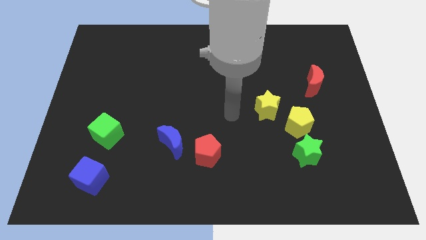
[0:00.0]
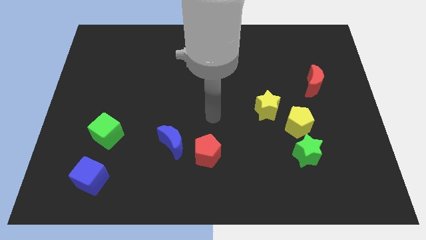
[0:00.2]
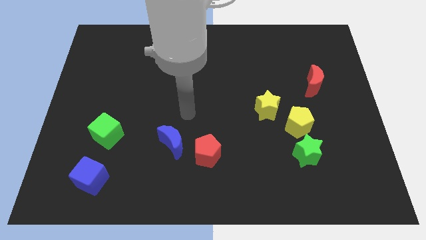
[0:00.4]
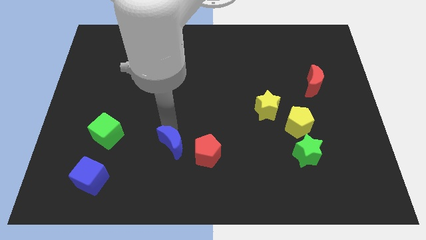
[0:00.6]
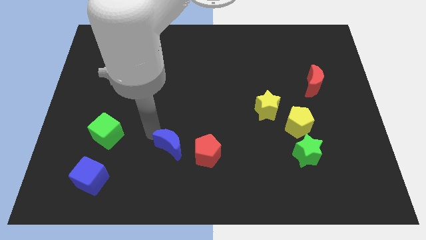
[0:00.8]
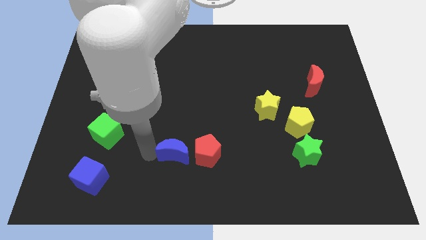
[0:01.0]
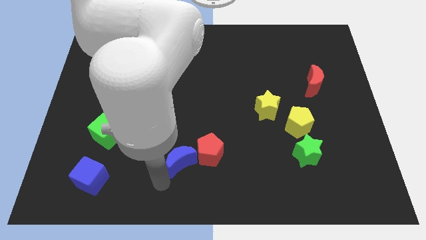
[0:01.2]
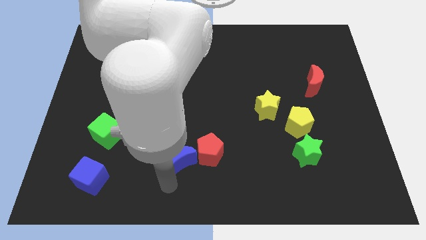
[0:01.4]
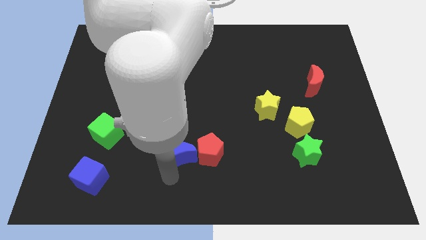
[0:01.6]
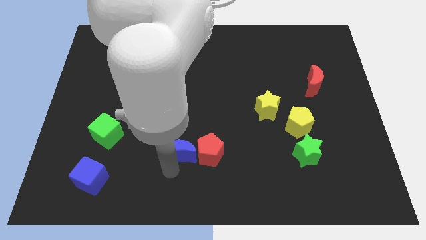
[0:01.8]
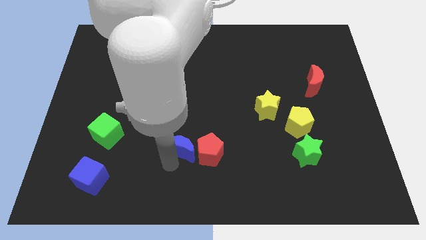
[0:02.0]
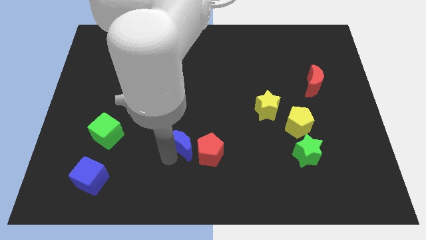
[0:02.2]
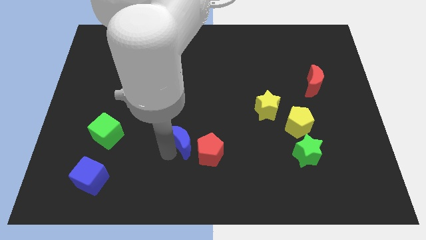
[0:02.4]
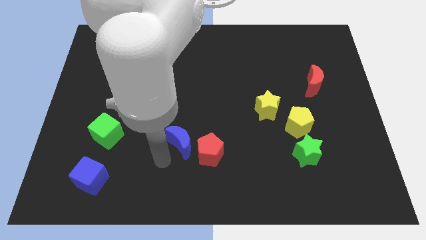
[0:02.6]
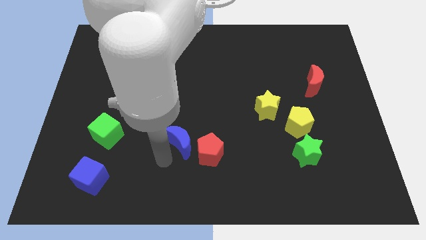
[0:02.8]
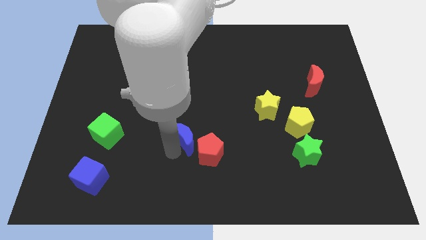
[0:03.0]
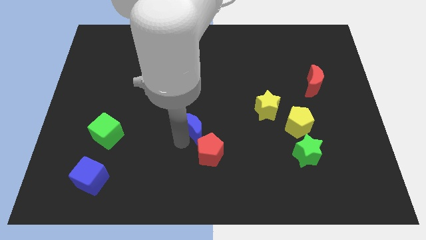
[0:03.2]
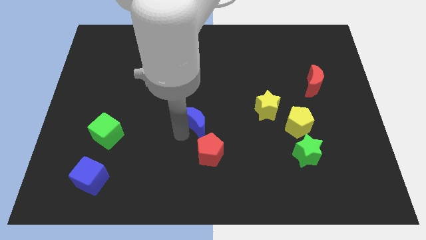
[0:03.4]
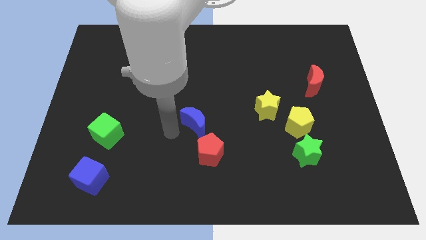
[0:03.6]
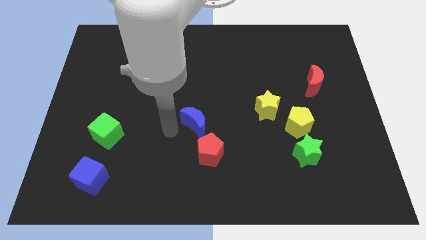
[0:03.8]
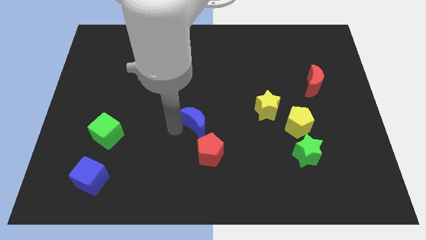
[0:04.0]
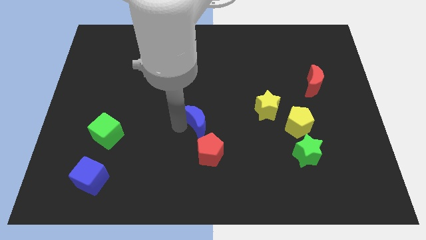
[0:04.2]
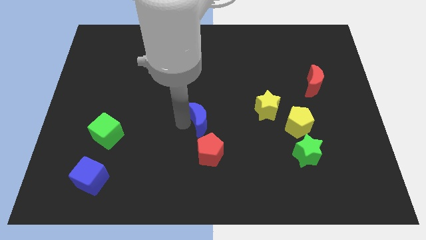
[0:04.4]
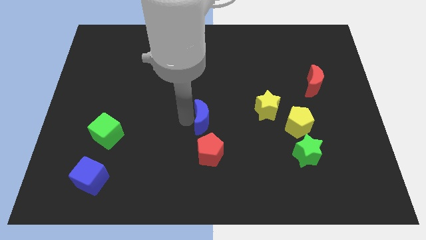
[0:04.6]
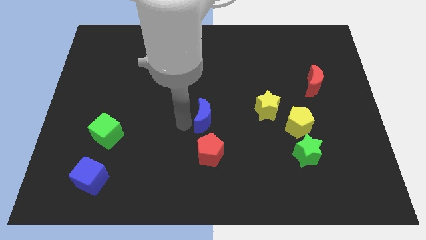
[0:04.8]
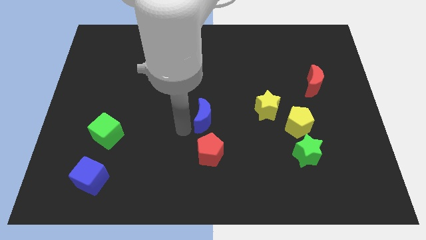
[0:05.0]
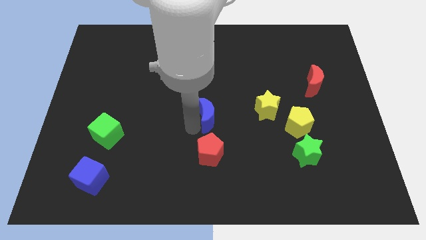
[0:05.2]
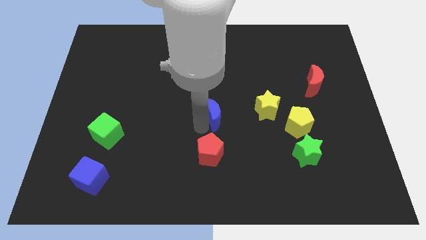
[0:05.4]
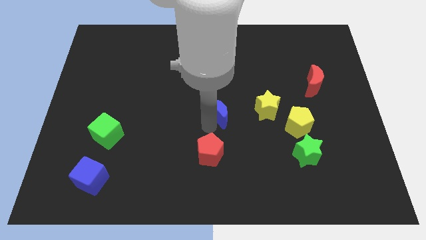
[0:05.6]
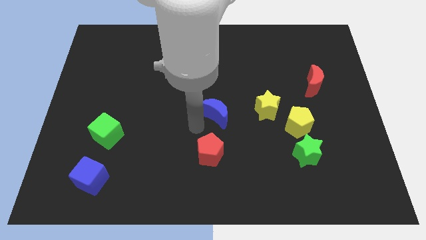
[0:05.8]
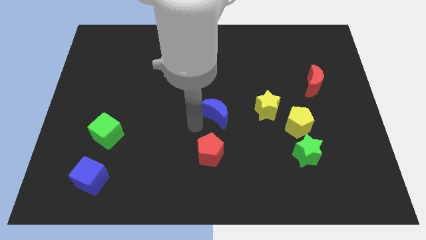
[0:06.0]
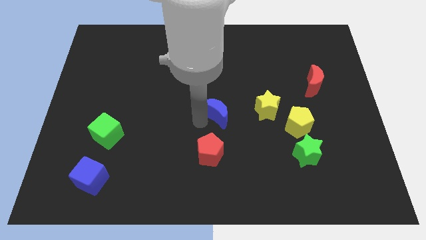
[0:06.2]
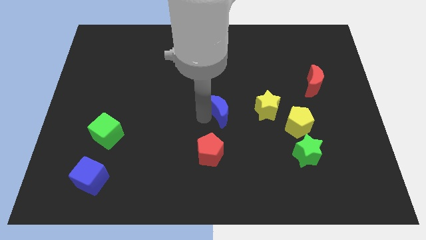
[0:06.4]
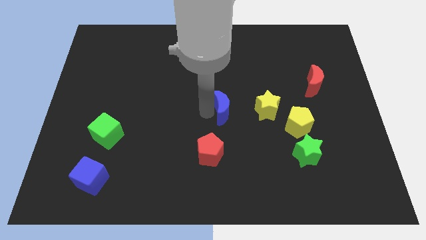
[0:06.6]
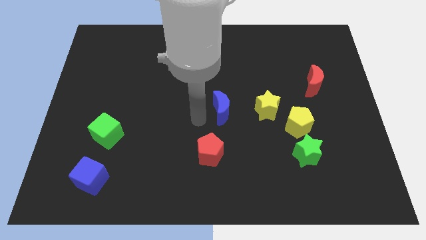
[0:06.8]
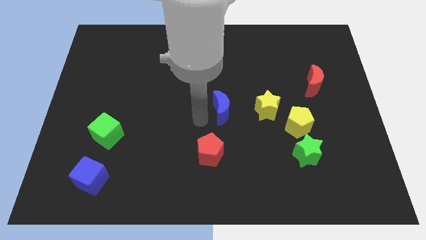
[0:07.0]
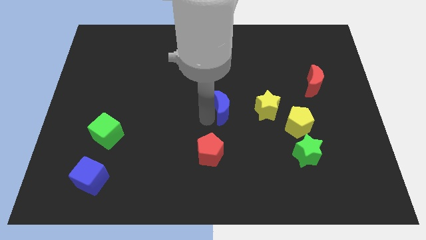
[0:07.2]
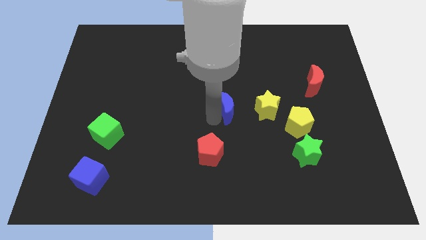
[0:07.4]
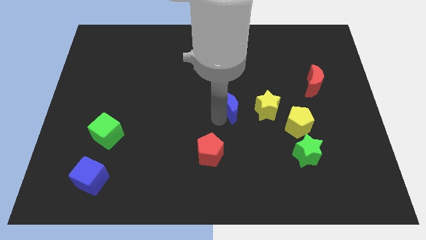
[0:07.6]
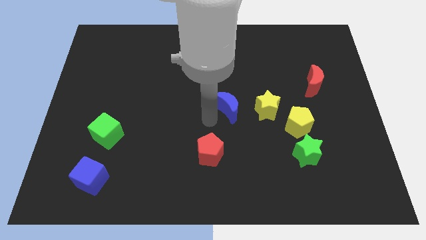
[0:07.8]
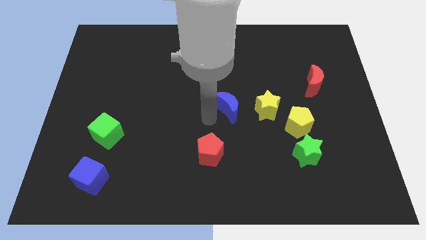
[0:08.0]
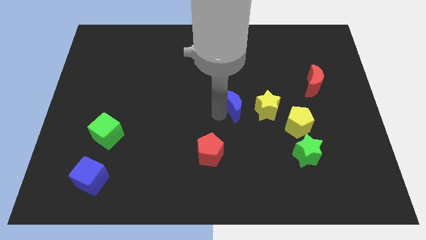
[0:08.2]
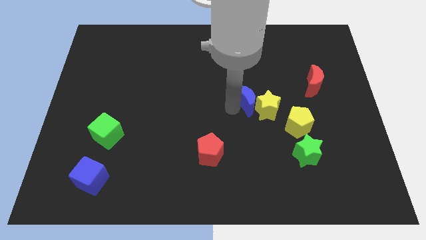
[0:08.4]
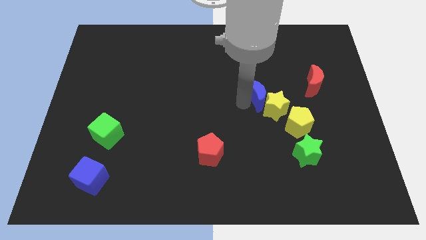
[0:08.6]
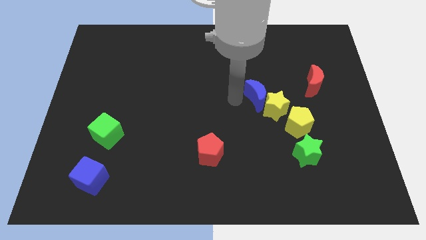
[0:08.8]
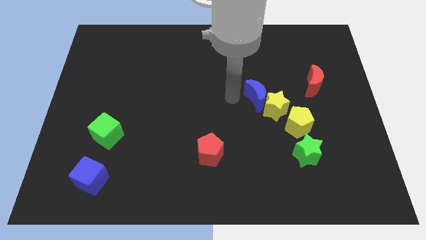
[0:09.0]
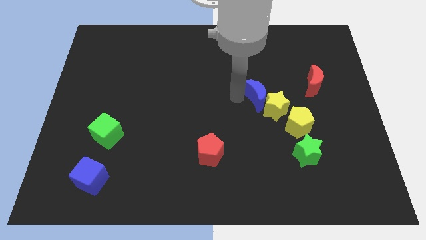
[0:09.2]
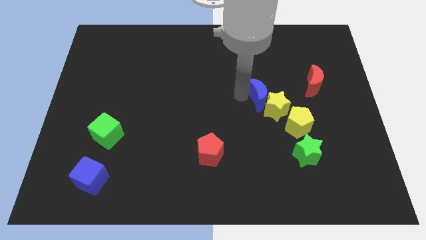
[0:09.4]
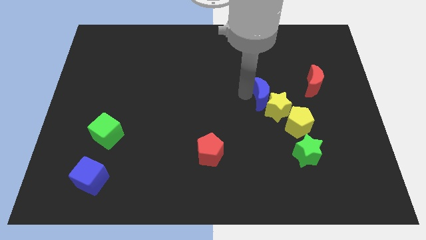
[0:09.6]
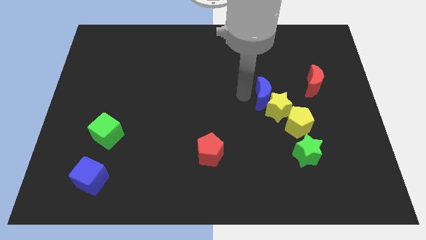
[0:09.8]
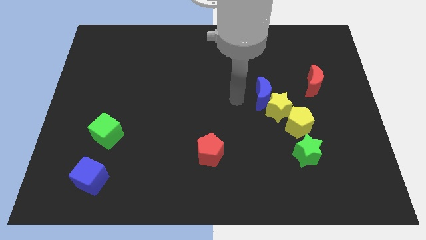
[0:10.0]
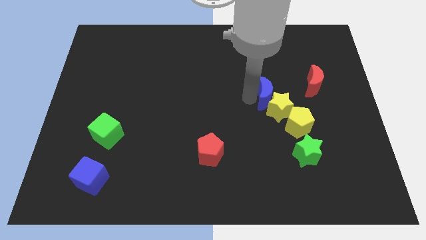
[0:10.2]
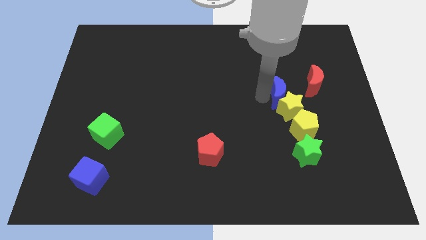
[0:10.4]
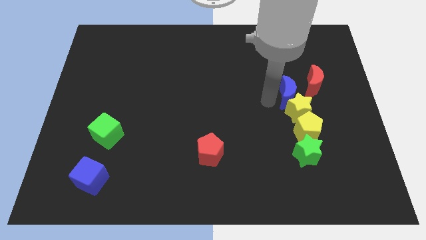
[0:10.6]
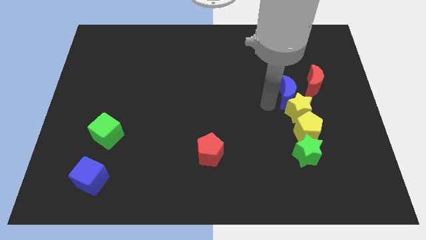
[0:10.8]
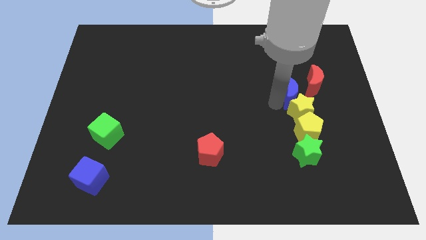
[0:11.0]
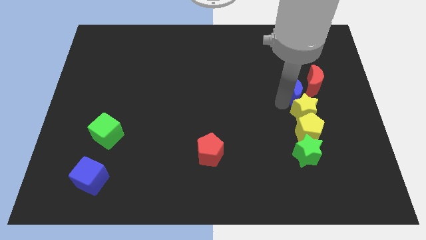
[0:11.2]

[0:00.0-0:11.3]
push the blue moon next to the red moon

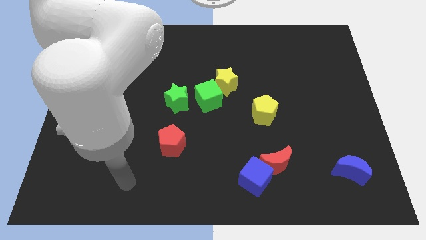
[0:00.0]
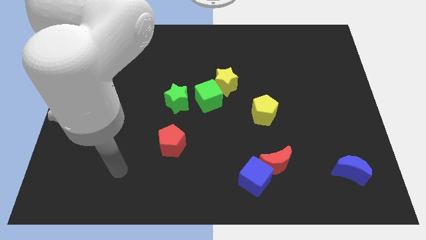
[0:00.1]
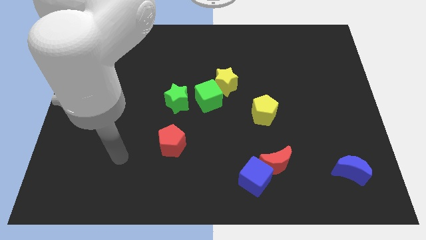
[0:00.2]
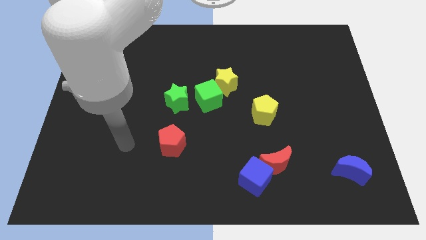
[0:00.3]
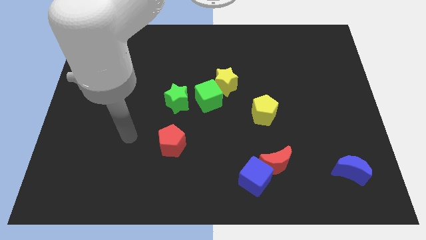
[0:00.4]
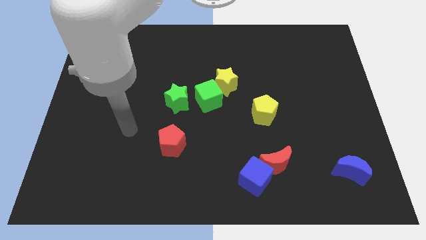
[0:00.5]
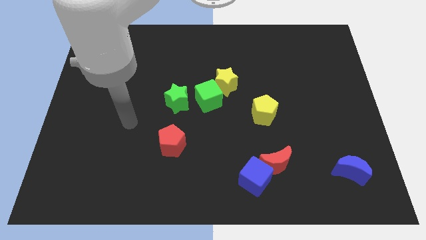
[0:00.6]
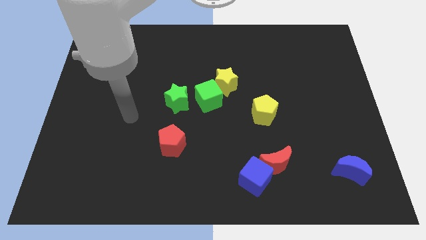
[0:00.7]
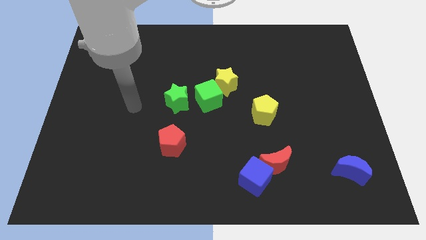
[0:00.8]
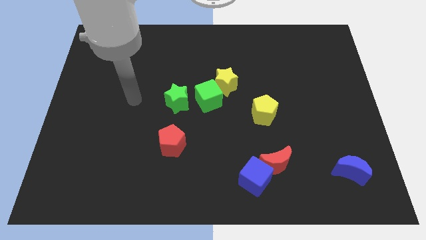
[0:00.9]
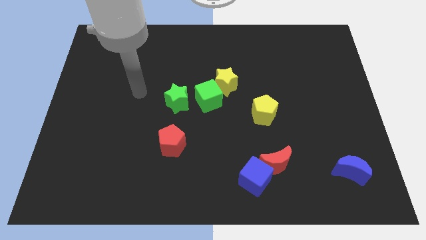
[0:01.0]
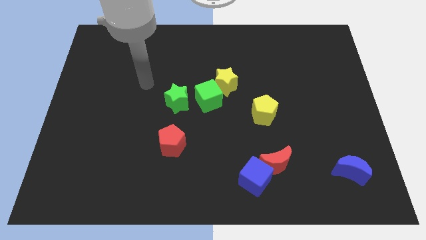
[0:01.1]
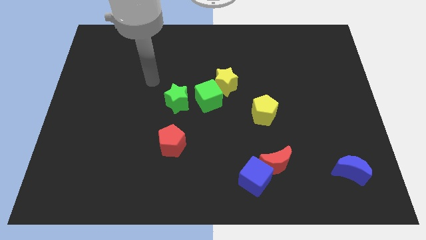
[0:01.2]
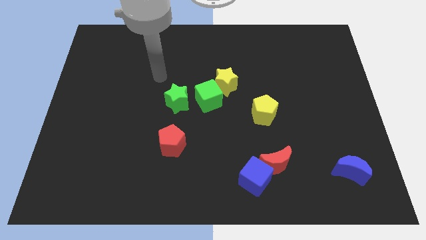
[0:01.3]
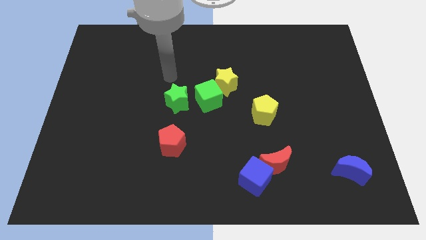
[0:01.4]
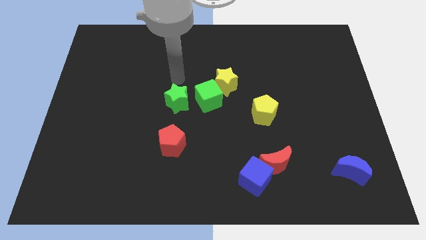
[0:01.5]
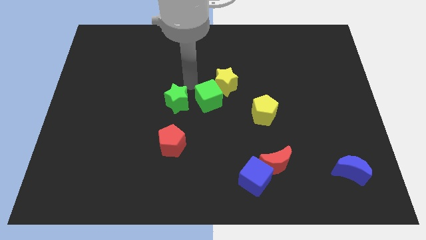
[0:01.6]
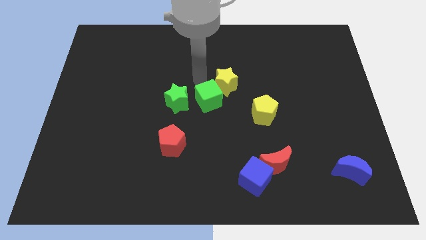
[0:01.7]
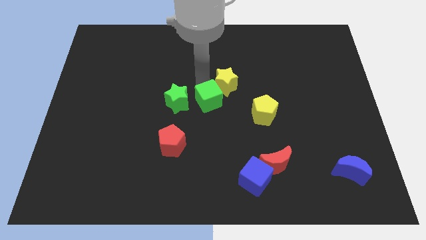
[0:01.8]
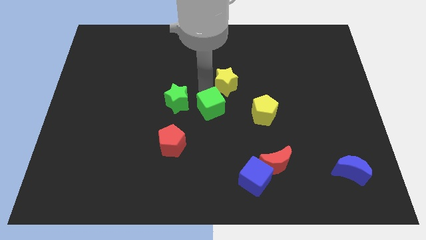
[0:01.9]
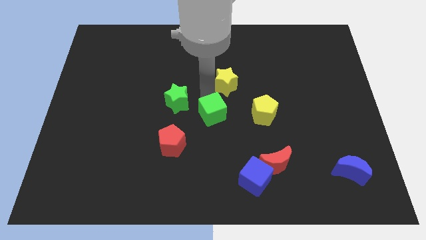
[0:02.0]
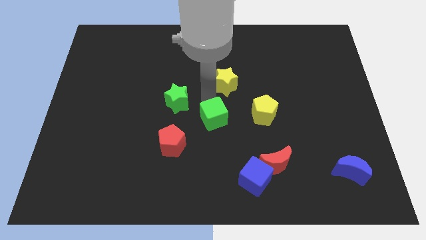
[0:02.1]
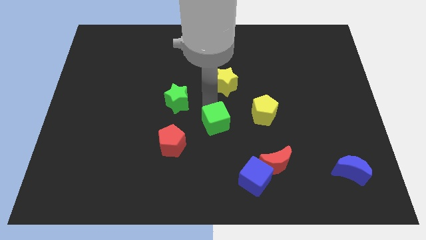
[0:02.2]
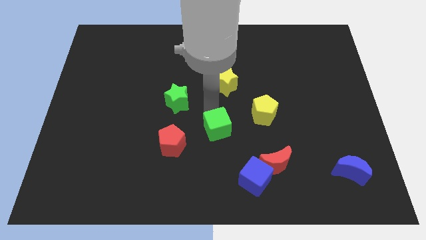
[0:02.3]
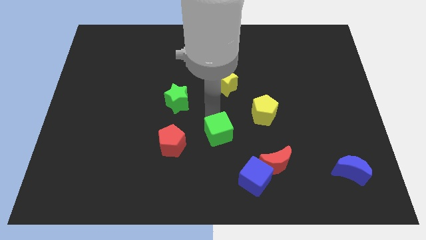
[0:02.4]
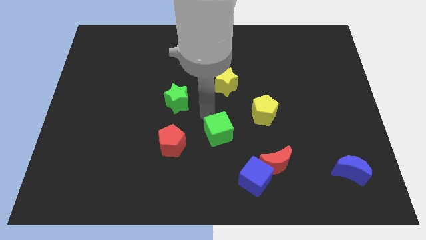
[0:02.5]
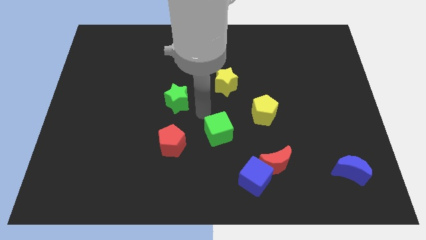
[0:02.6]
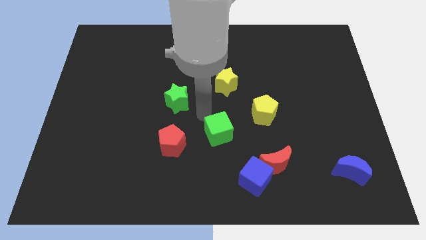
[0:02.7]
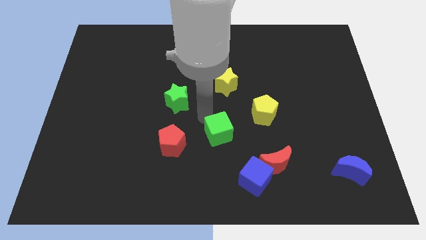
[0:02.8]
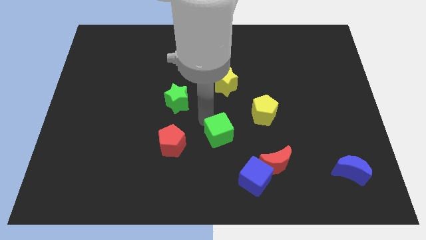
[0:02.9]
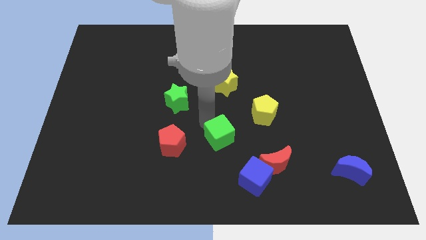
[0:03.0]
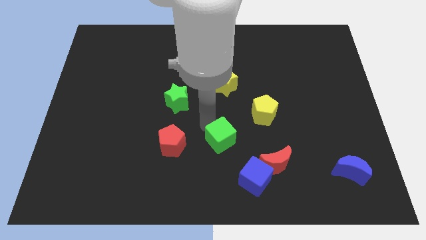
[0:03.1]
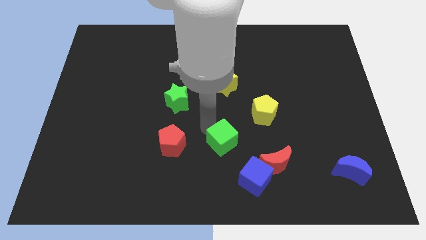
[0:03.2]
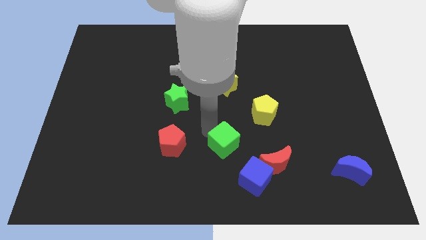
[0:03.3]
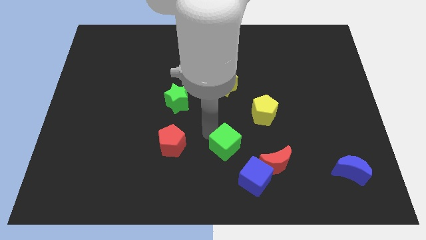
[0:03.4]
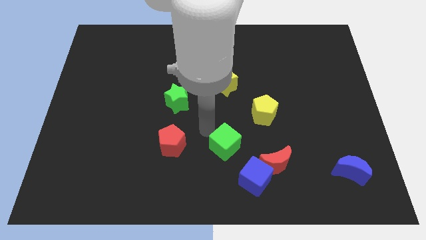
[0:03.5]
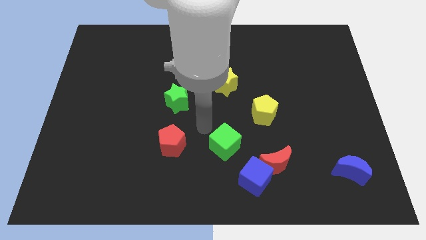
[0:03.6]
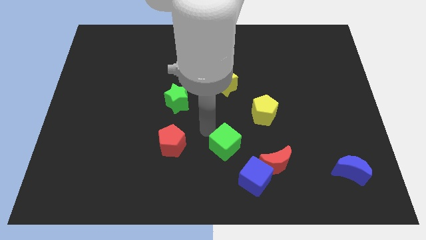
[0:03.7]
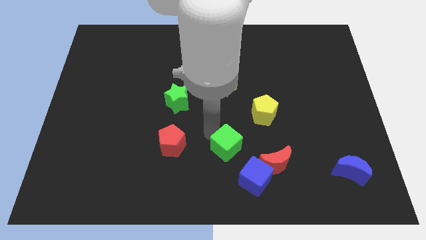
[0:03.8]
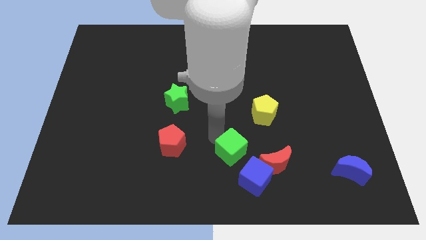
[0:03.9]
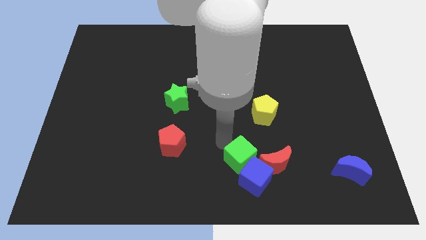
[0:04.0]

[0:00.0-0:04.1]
put the green cube towards the blue cube
